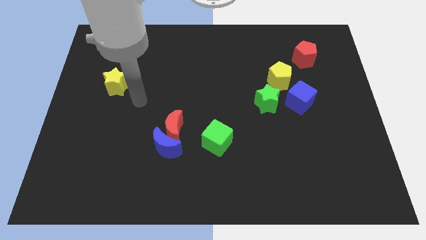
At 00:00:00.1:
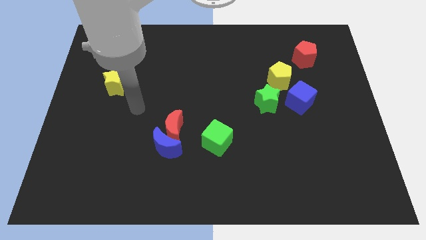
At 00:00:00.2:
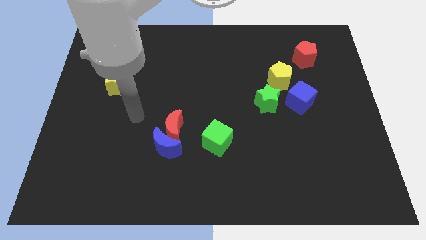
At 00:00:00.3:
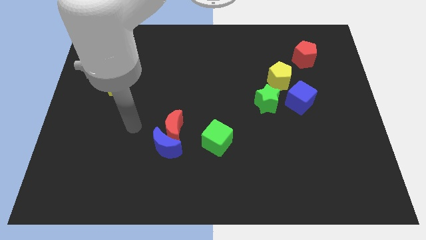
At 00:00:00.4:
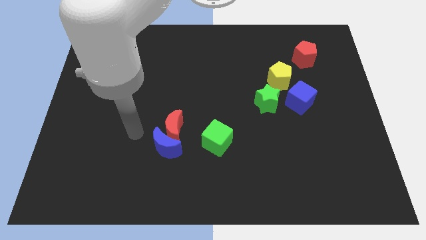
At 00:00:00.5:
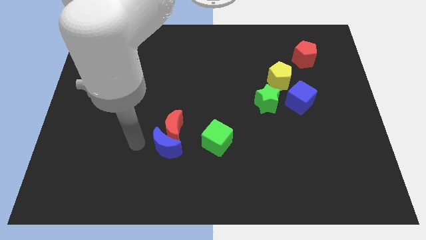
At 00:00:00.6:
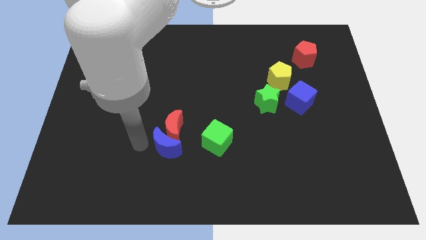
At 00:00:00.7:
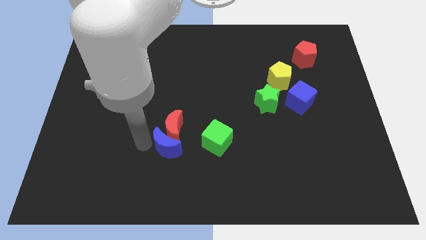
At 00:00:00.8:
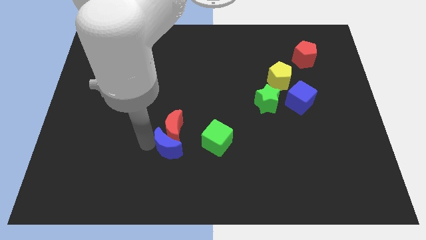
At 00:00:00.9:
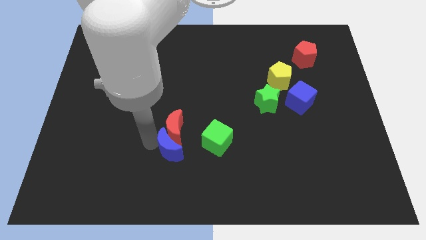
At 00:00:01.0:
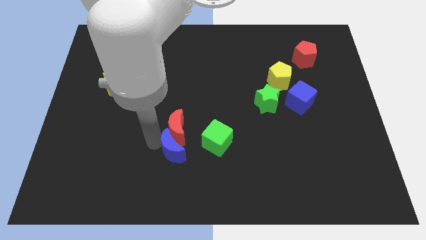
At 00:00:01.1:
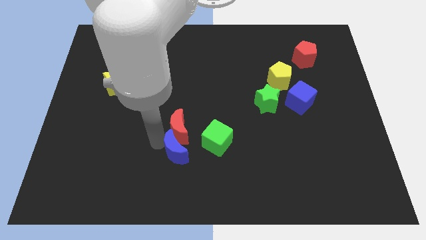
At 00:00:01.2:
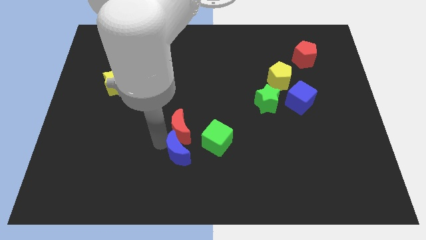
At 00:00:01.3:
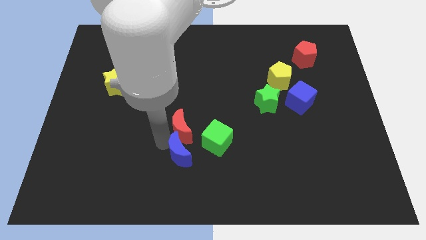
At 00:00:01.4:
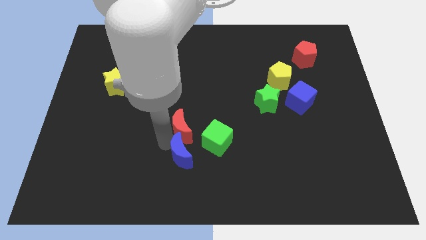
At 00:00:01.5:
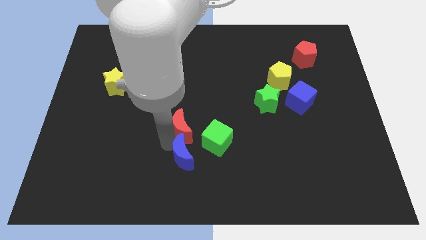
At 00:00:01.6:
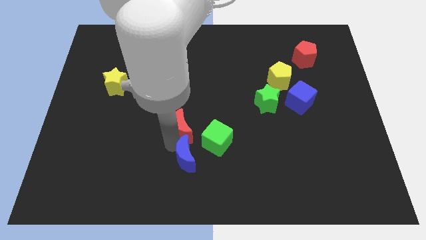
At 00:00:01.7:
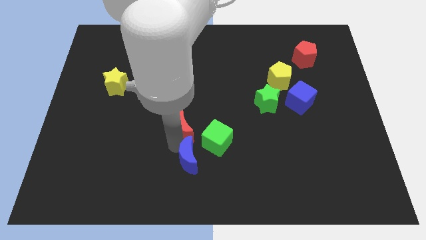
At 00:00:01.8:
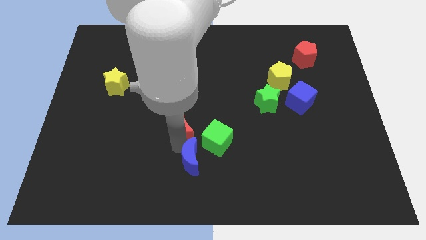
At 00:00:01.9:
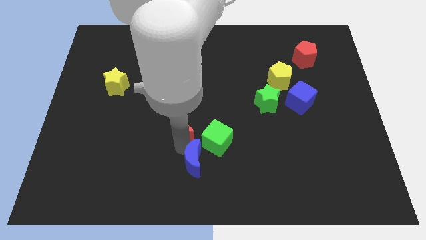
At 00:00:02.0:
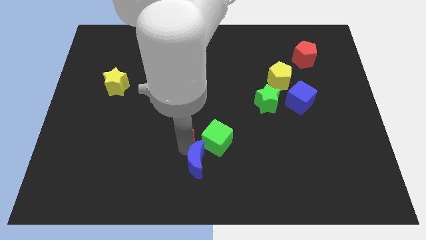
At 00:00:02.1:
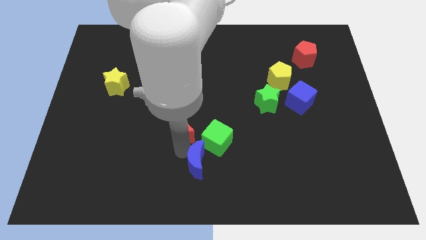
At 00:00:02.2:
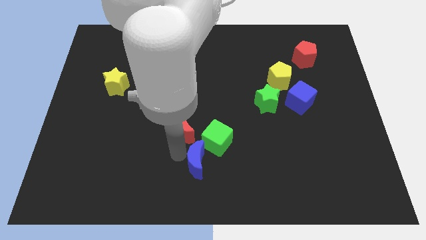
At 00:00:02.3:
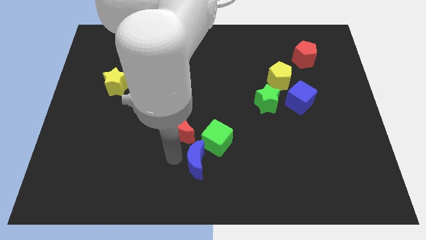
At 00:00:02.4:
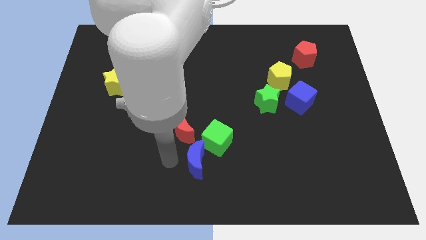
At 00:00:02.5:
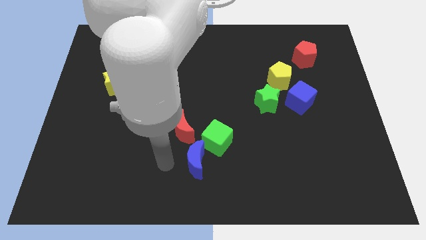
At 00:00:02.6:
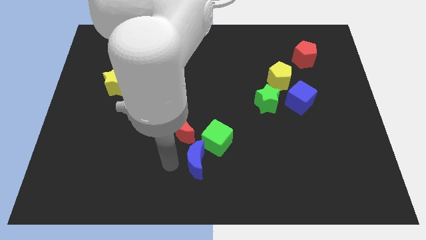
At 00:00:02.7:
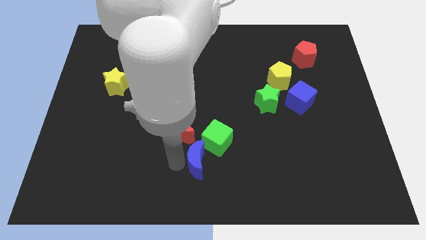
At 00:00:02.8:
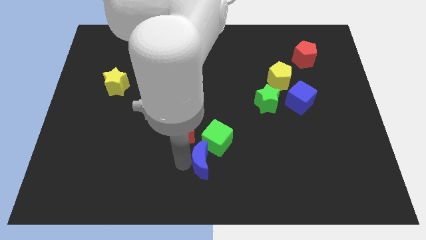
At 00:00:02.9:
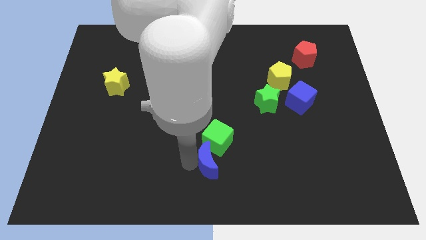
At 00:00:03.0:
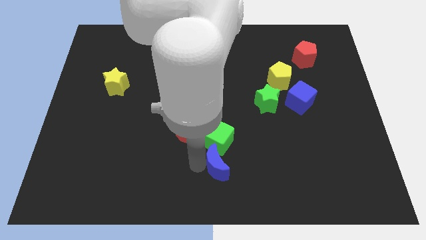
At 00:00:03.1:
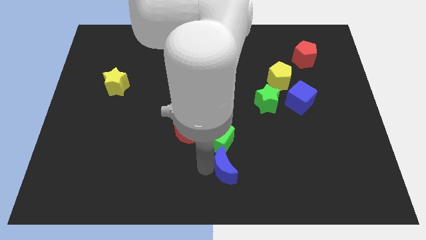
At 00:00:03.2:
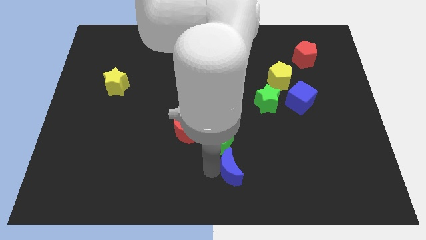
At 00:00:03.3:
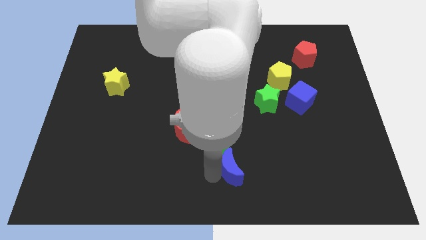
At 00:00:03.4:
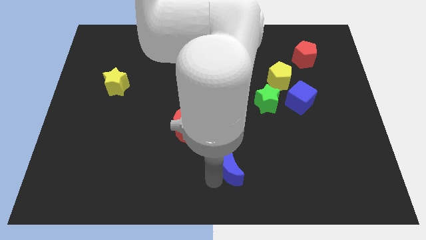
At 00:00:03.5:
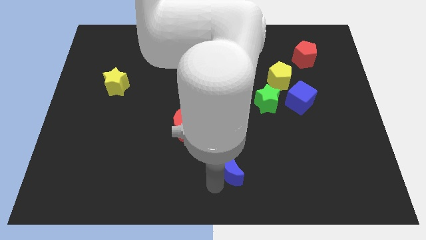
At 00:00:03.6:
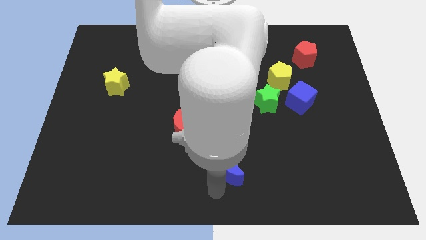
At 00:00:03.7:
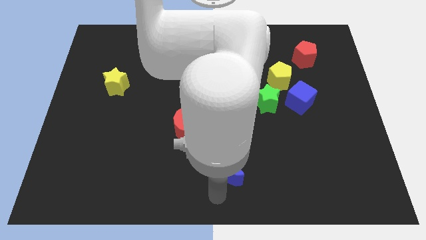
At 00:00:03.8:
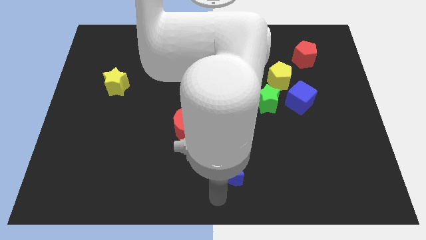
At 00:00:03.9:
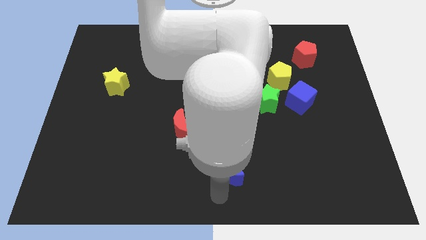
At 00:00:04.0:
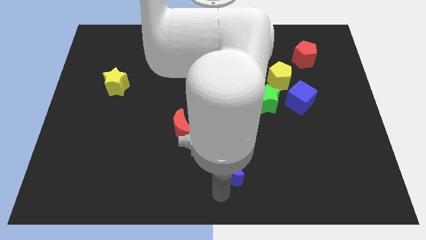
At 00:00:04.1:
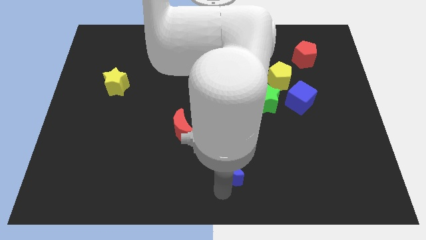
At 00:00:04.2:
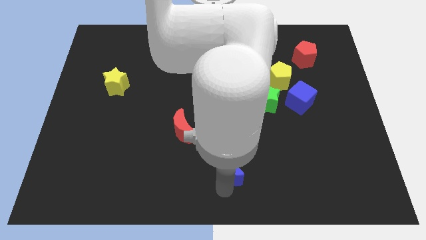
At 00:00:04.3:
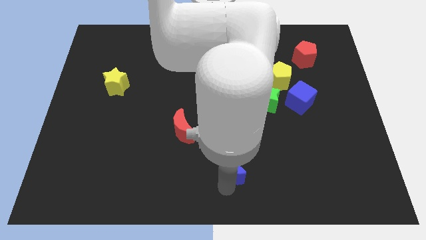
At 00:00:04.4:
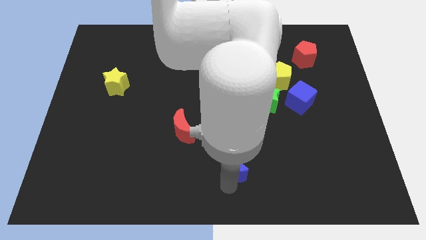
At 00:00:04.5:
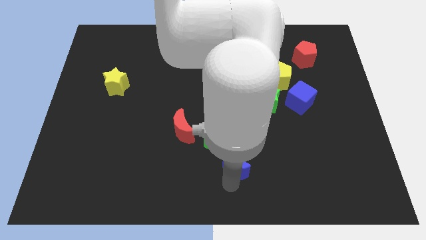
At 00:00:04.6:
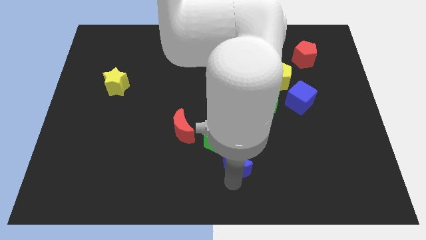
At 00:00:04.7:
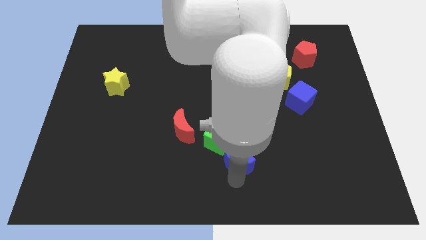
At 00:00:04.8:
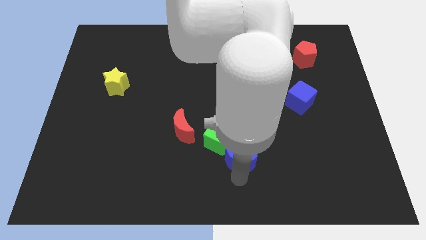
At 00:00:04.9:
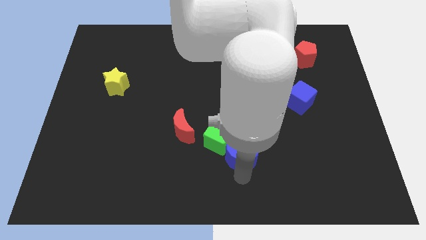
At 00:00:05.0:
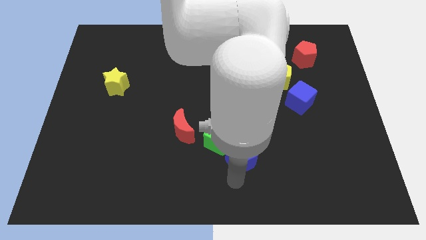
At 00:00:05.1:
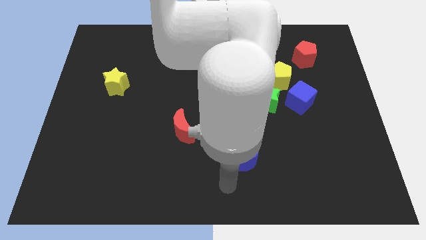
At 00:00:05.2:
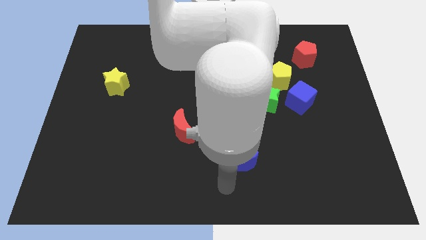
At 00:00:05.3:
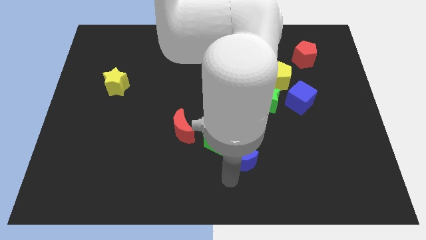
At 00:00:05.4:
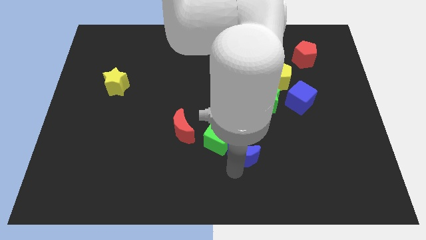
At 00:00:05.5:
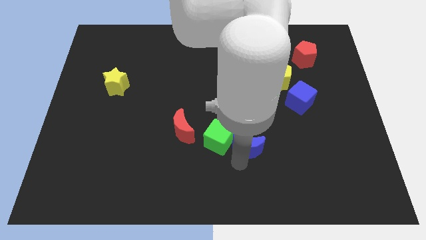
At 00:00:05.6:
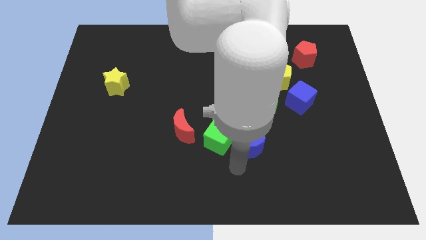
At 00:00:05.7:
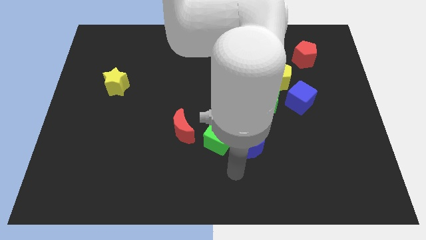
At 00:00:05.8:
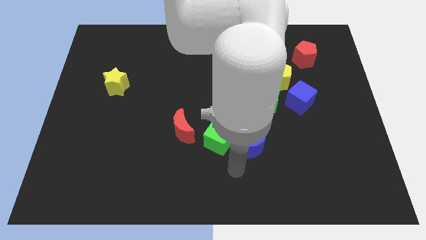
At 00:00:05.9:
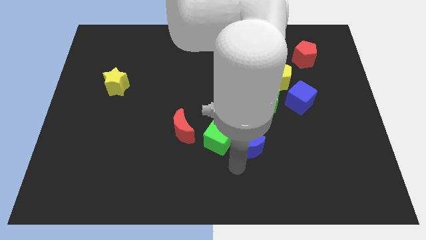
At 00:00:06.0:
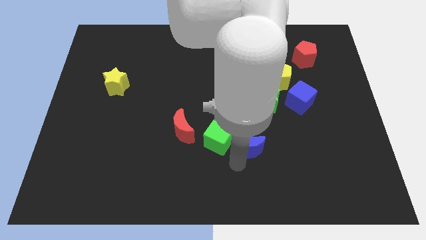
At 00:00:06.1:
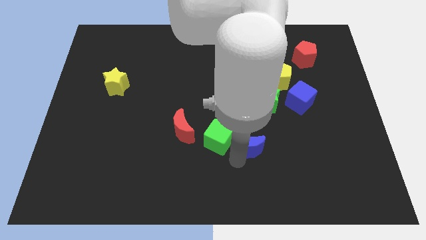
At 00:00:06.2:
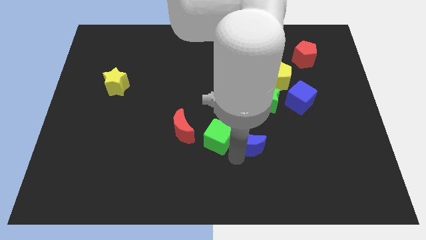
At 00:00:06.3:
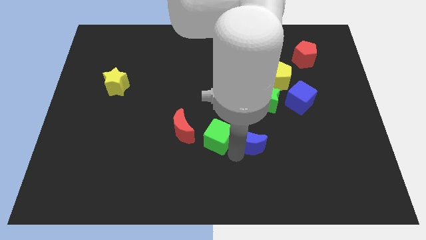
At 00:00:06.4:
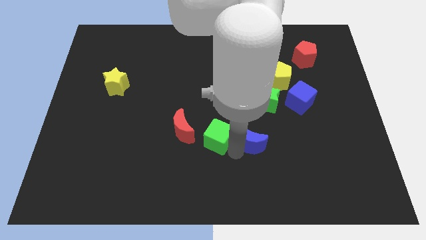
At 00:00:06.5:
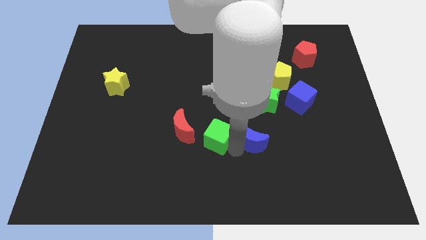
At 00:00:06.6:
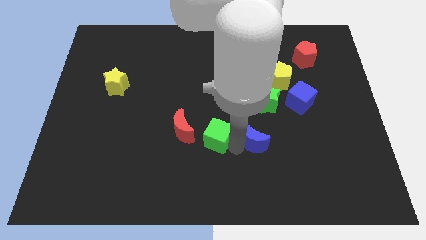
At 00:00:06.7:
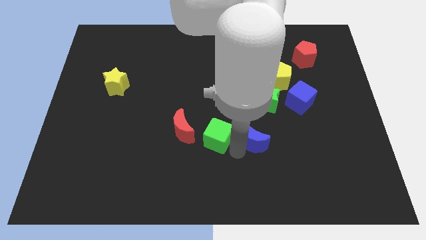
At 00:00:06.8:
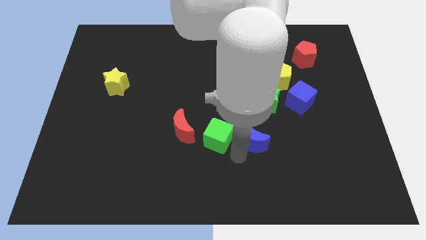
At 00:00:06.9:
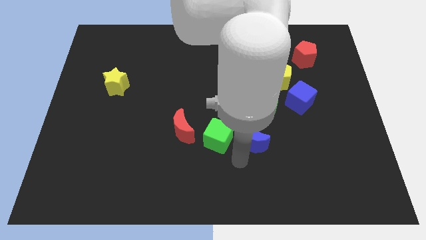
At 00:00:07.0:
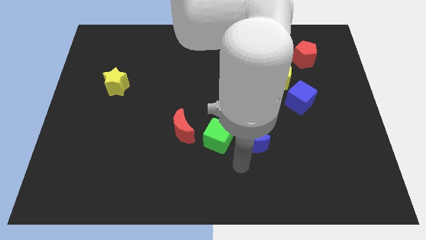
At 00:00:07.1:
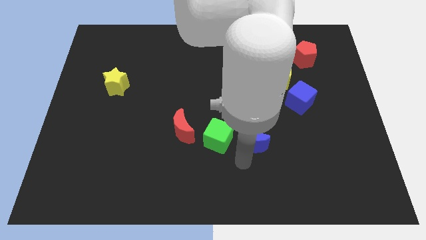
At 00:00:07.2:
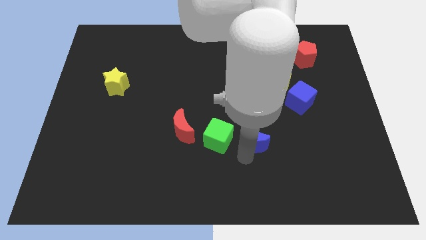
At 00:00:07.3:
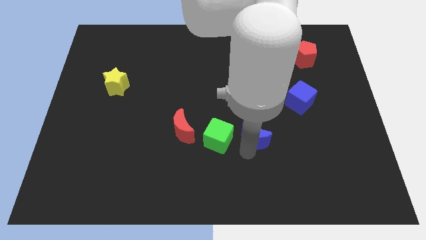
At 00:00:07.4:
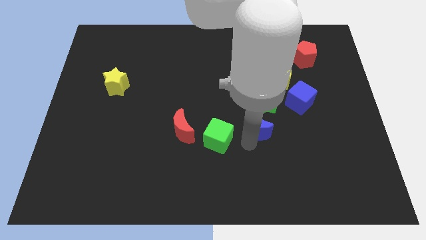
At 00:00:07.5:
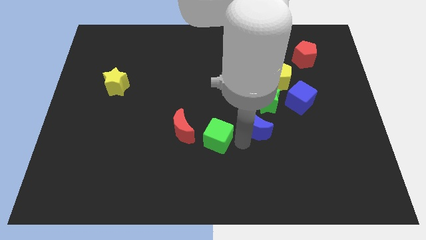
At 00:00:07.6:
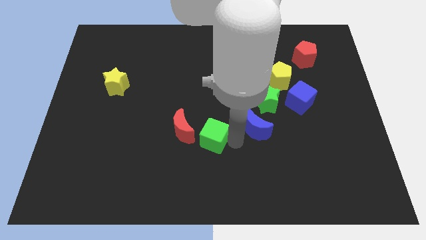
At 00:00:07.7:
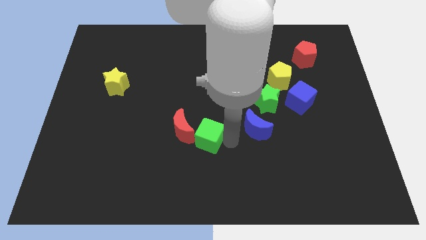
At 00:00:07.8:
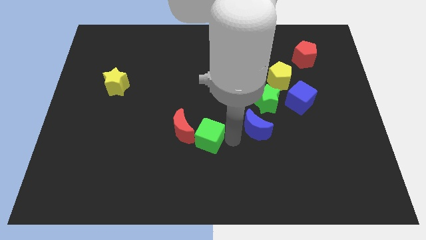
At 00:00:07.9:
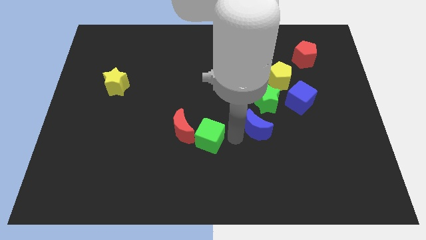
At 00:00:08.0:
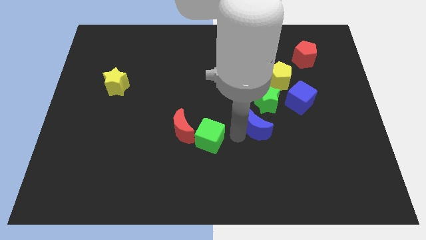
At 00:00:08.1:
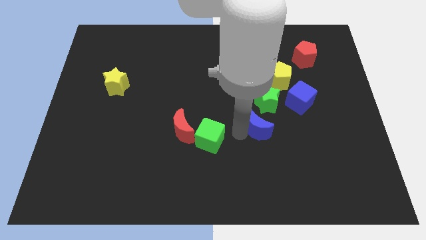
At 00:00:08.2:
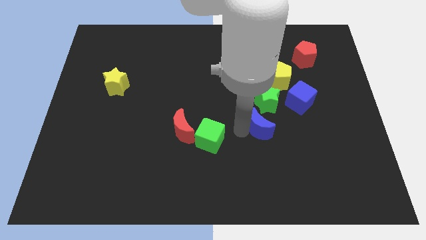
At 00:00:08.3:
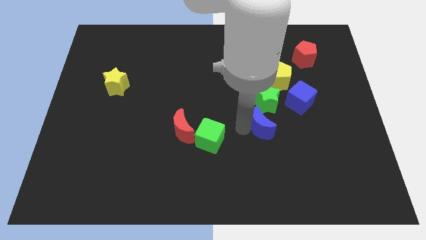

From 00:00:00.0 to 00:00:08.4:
slide the blue moon to the bottom left side of the blue cube
